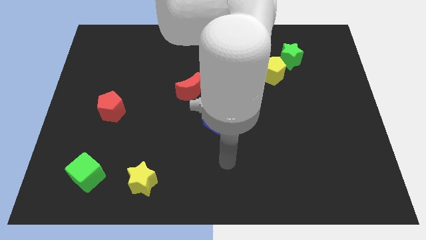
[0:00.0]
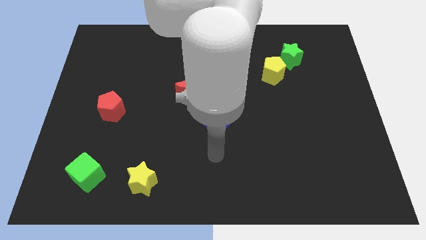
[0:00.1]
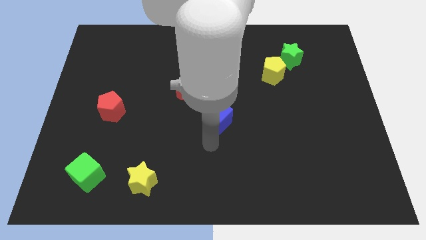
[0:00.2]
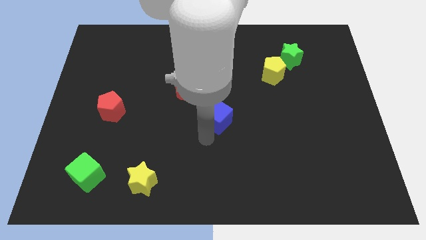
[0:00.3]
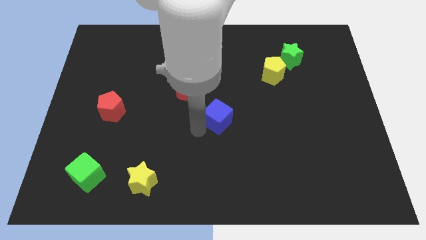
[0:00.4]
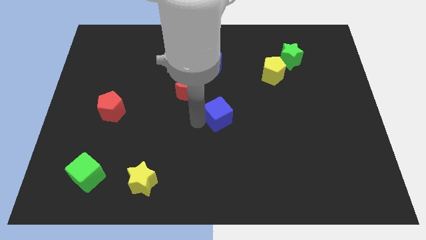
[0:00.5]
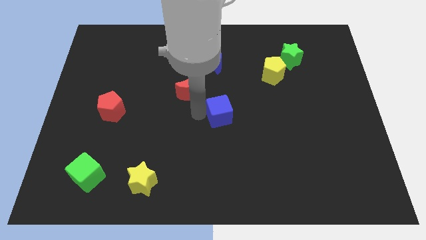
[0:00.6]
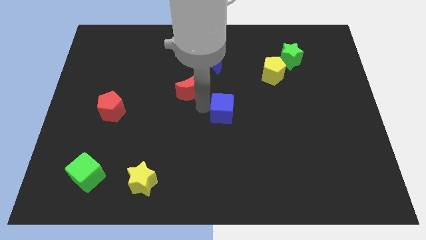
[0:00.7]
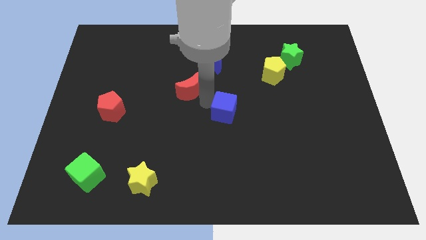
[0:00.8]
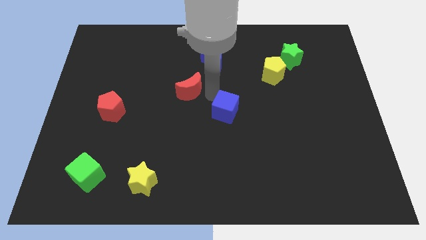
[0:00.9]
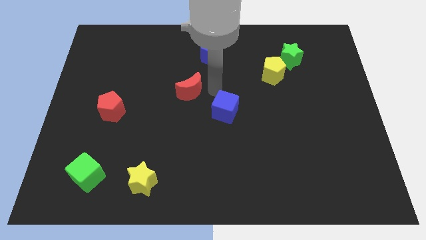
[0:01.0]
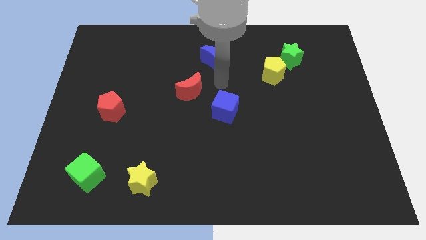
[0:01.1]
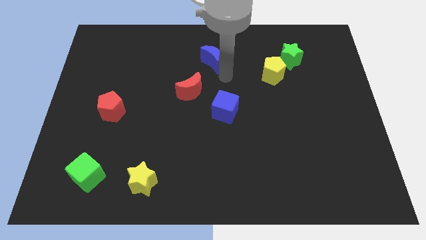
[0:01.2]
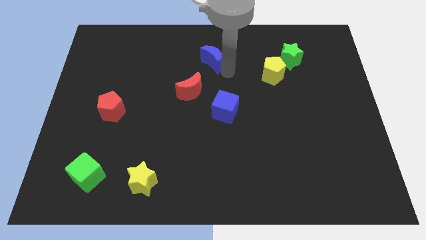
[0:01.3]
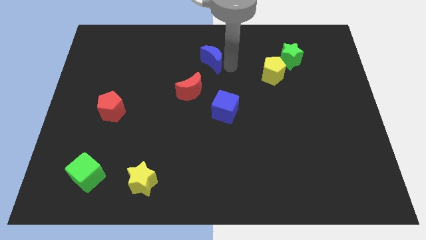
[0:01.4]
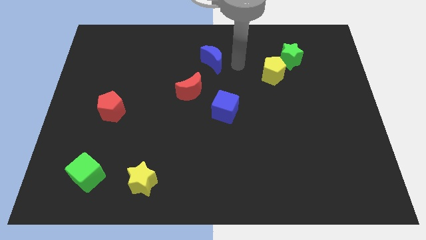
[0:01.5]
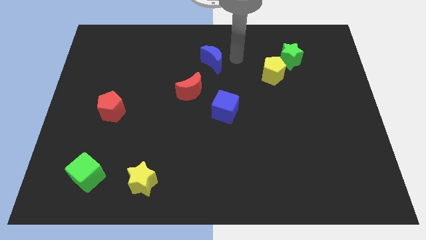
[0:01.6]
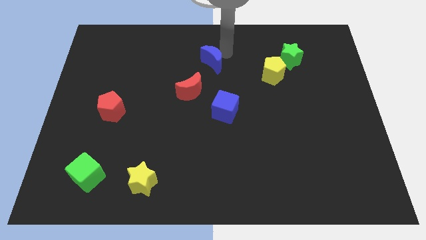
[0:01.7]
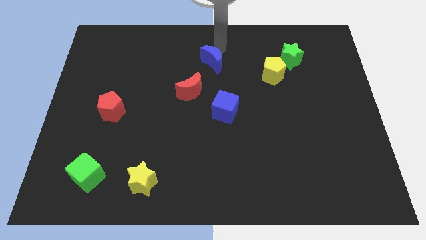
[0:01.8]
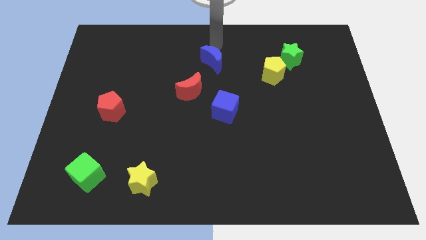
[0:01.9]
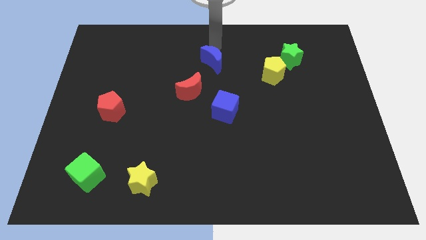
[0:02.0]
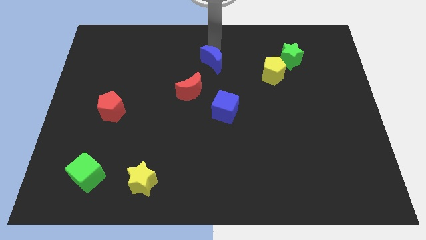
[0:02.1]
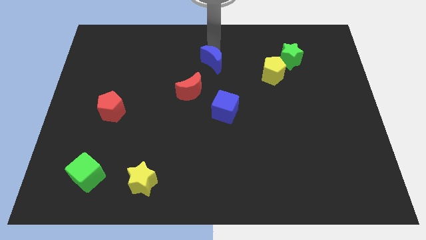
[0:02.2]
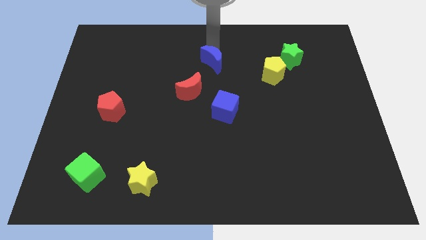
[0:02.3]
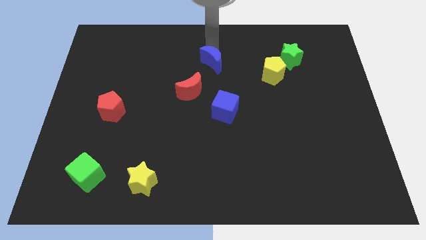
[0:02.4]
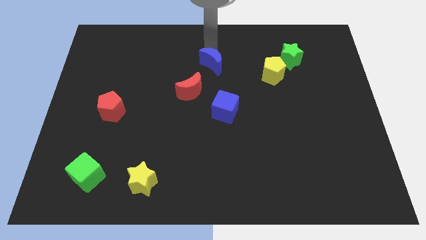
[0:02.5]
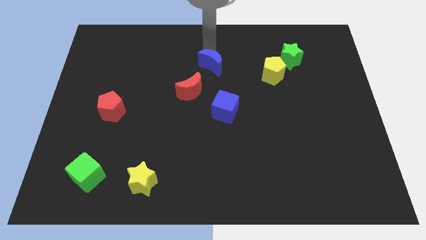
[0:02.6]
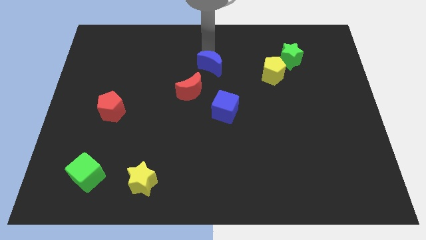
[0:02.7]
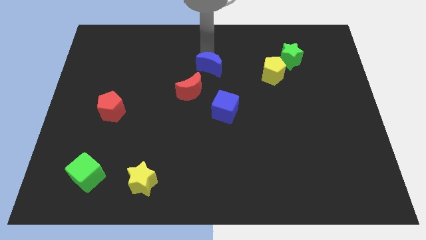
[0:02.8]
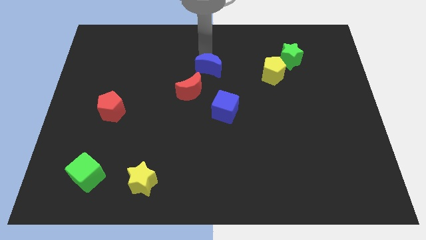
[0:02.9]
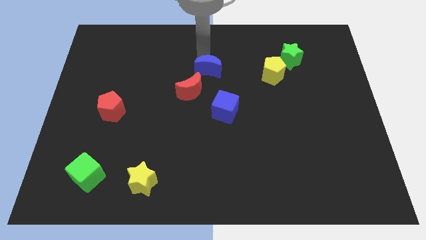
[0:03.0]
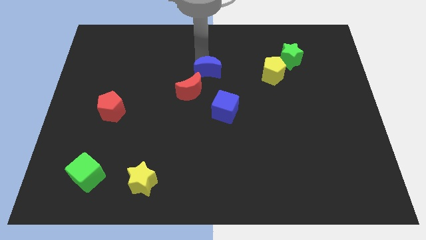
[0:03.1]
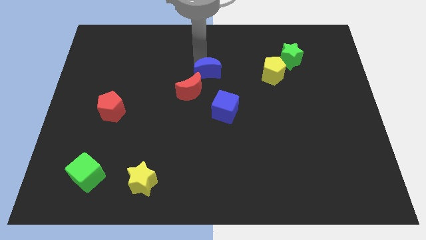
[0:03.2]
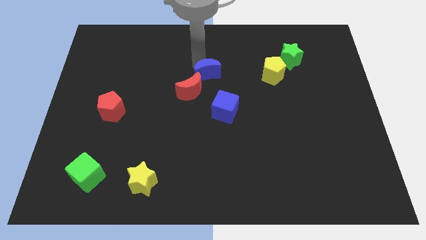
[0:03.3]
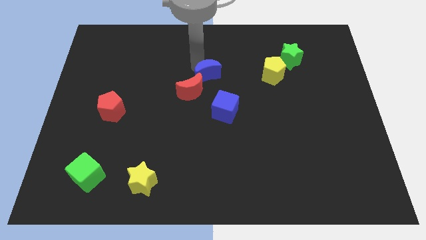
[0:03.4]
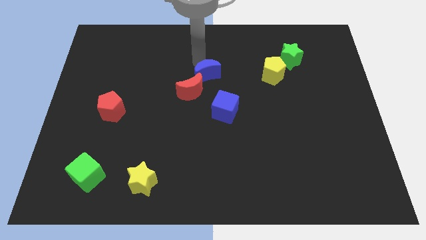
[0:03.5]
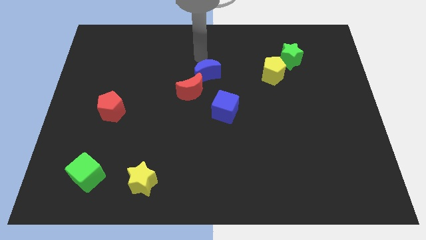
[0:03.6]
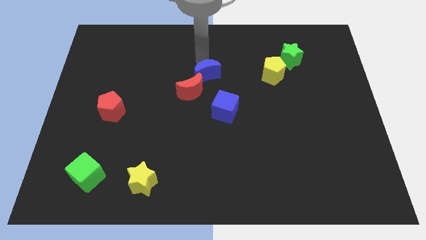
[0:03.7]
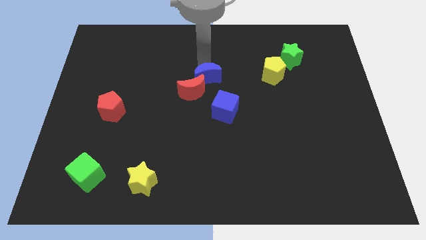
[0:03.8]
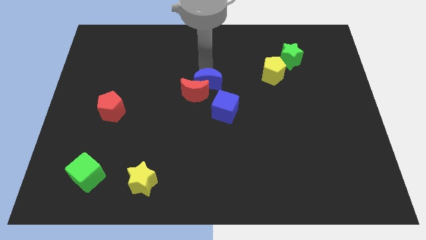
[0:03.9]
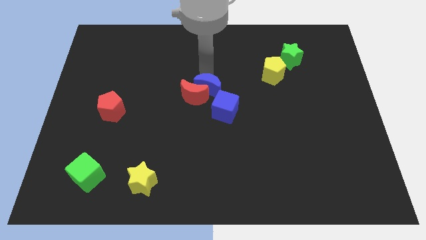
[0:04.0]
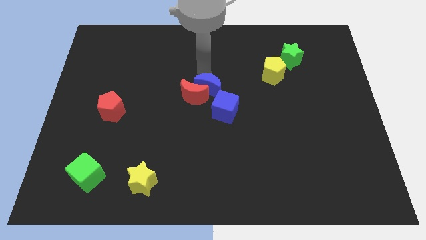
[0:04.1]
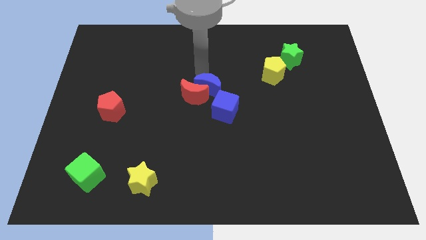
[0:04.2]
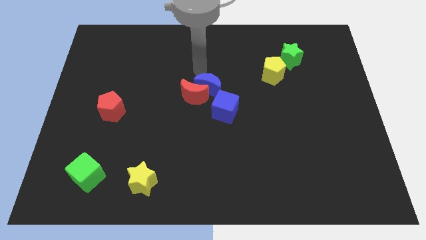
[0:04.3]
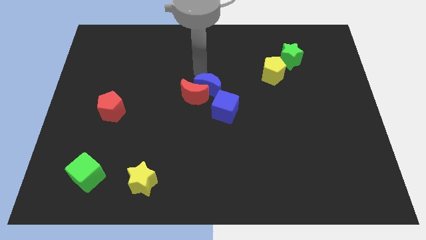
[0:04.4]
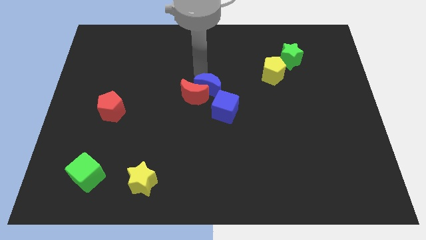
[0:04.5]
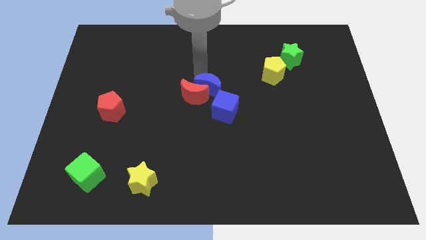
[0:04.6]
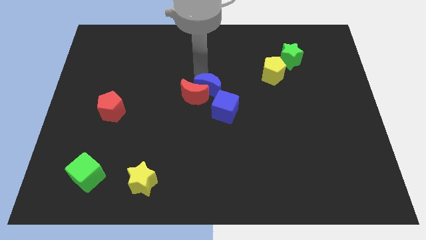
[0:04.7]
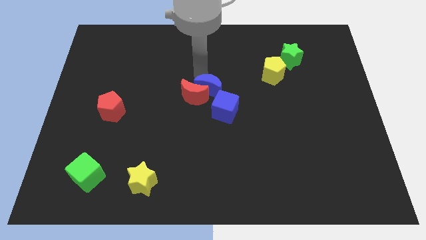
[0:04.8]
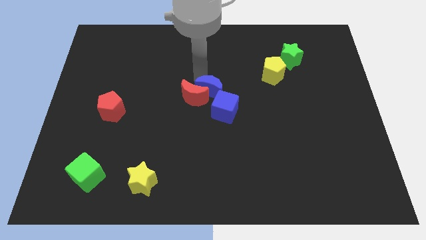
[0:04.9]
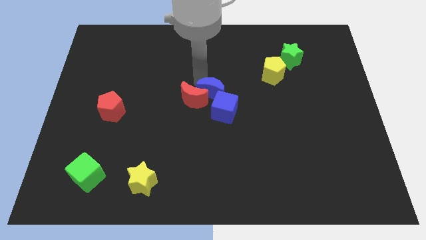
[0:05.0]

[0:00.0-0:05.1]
slide the blue moon to the blue cube

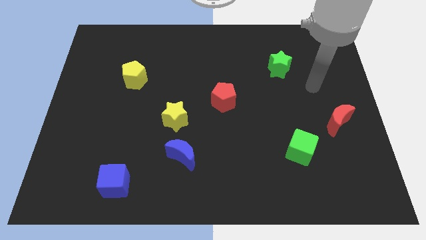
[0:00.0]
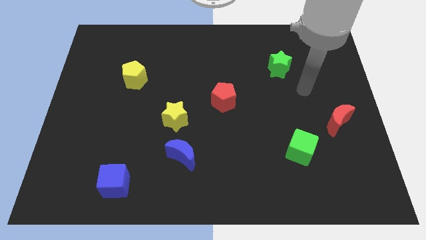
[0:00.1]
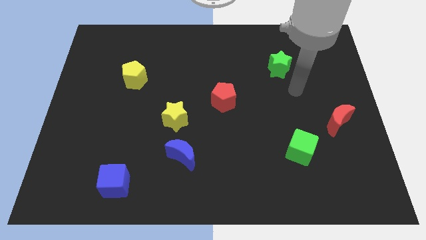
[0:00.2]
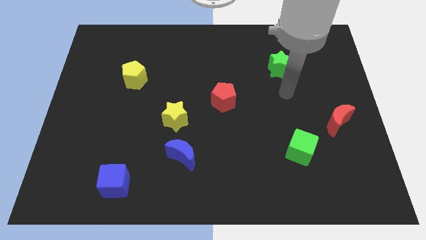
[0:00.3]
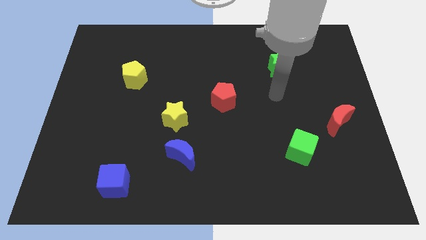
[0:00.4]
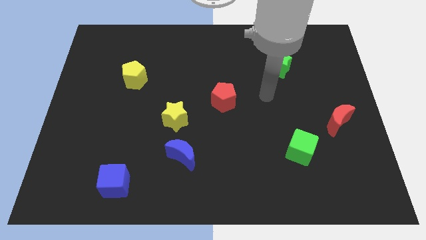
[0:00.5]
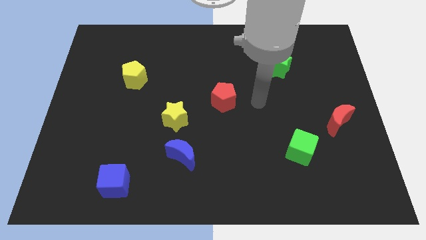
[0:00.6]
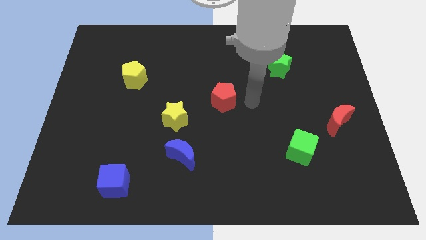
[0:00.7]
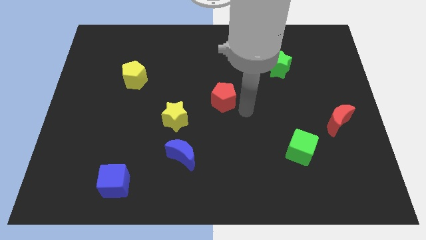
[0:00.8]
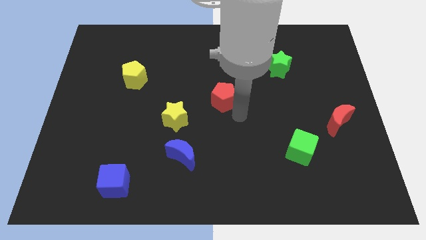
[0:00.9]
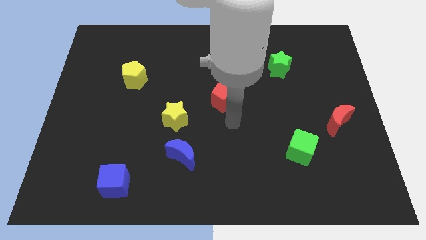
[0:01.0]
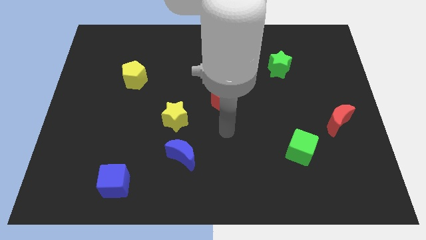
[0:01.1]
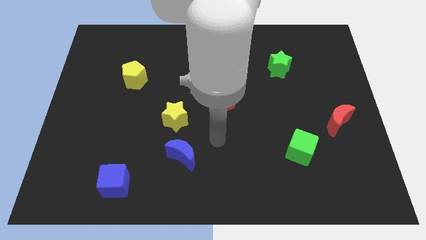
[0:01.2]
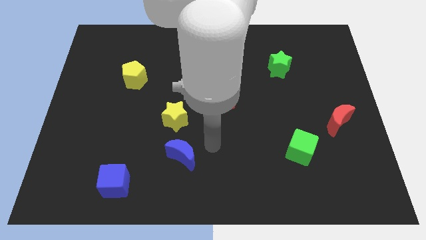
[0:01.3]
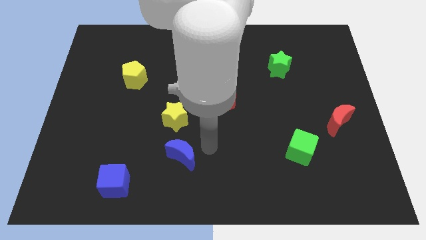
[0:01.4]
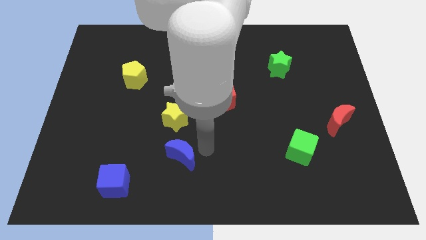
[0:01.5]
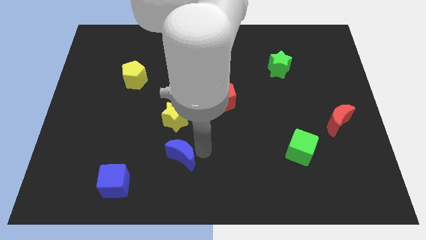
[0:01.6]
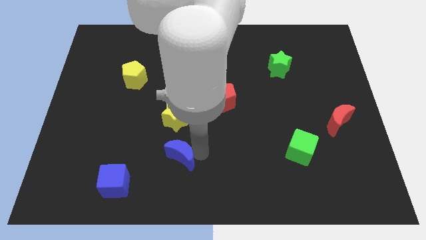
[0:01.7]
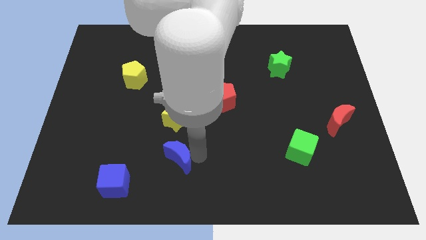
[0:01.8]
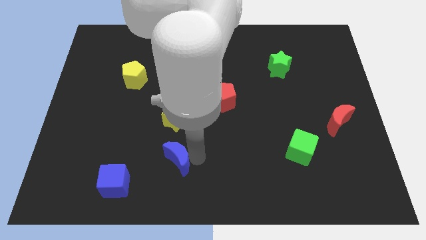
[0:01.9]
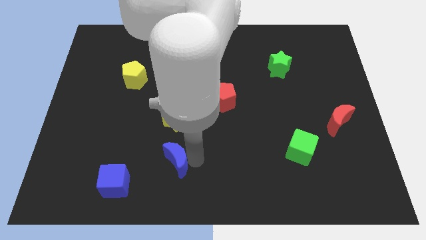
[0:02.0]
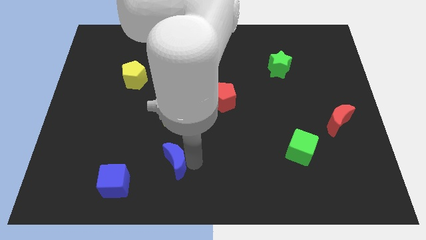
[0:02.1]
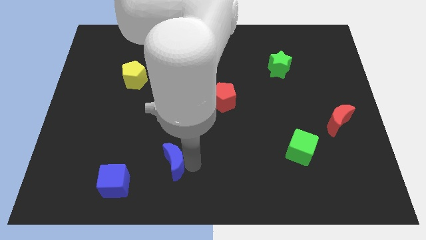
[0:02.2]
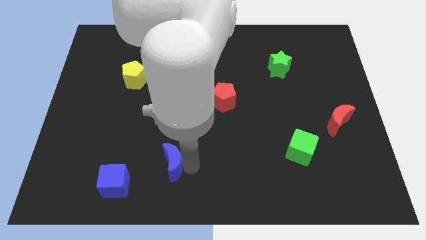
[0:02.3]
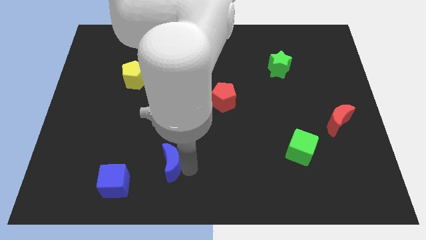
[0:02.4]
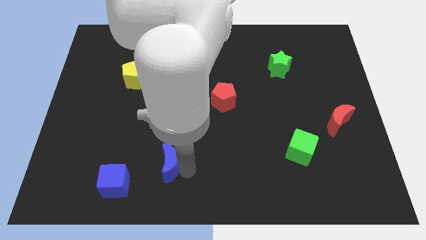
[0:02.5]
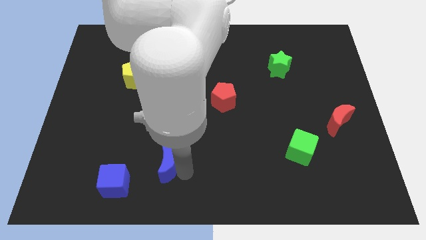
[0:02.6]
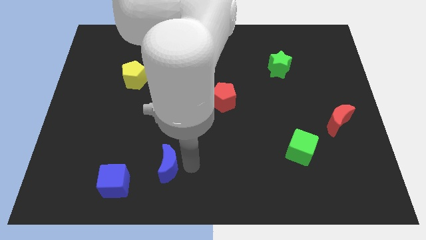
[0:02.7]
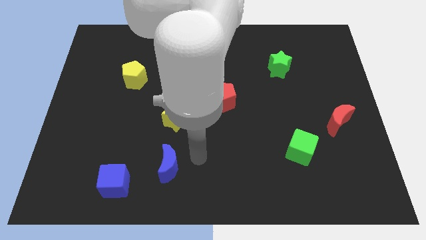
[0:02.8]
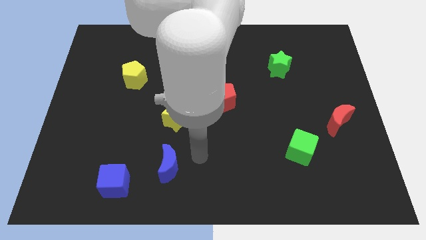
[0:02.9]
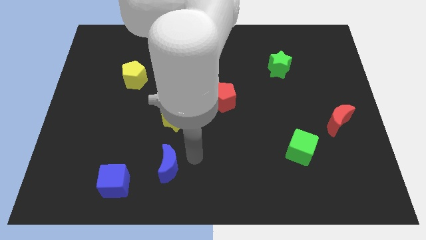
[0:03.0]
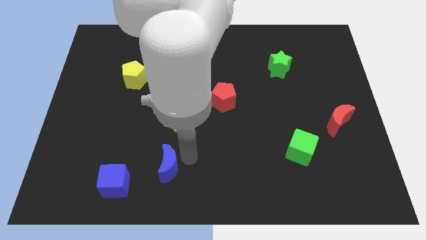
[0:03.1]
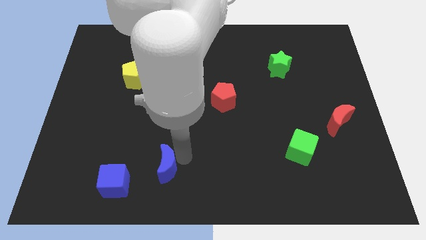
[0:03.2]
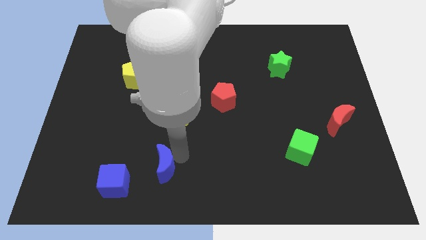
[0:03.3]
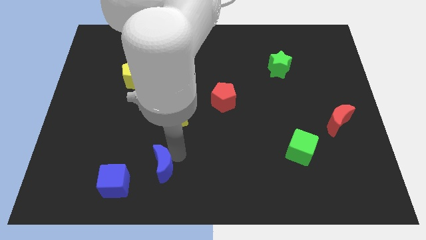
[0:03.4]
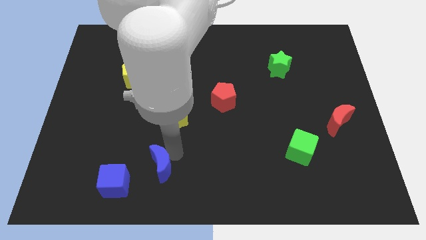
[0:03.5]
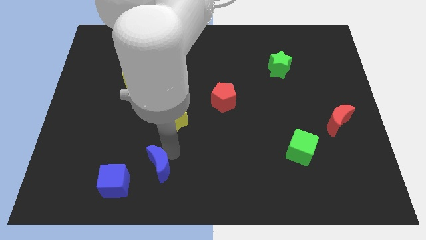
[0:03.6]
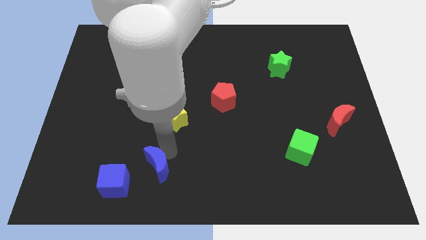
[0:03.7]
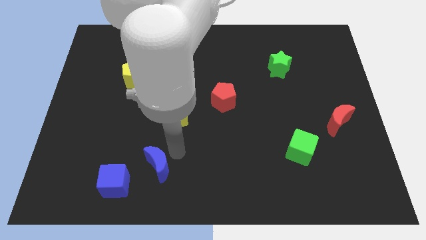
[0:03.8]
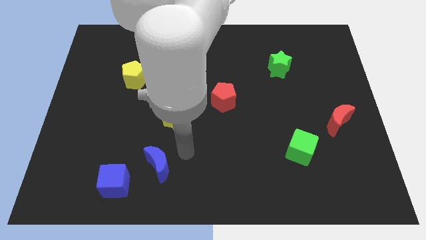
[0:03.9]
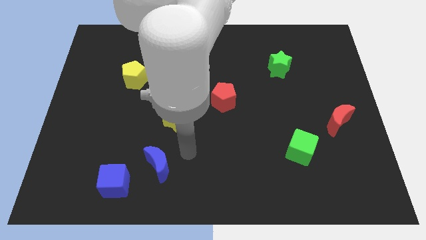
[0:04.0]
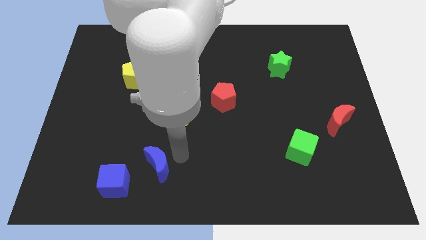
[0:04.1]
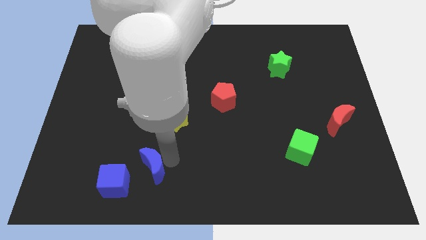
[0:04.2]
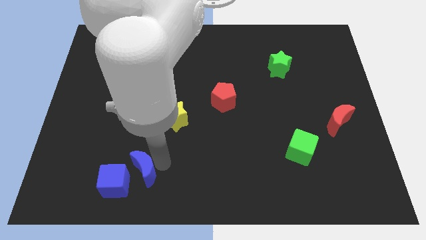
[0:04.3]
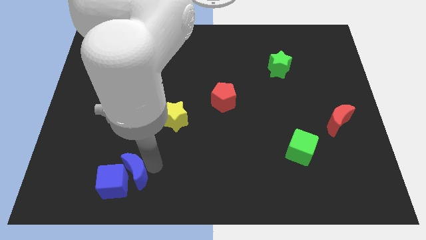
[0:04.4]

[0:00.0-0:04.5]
push the blue moon towards the blue cube
